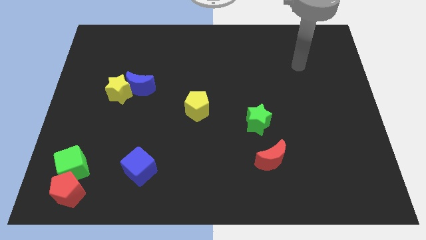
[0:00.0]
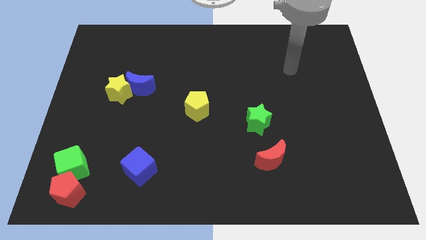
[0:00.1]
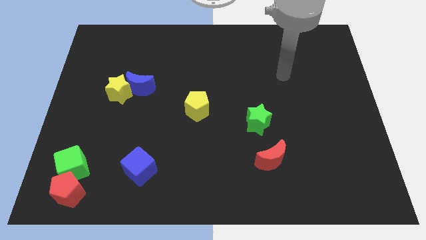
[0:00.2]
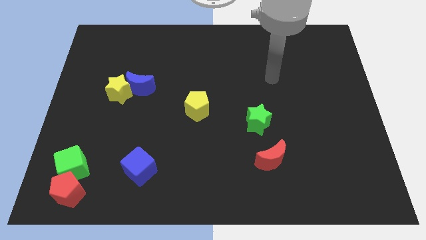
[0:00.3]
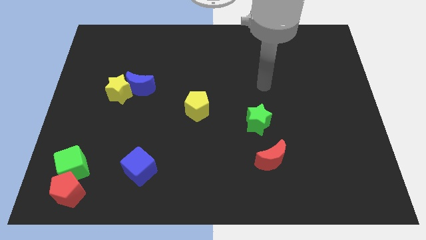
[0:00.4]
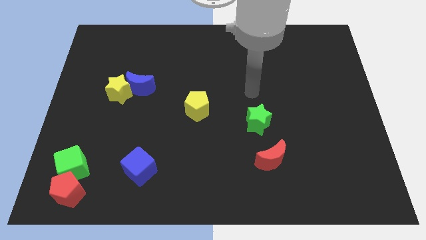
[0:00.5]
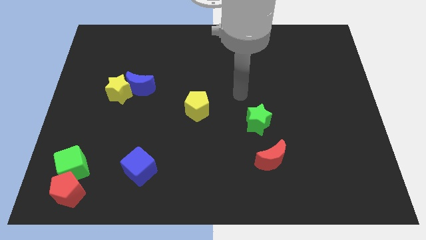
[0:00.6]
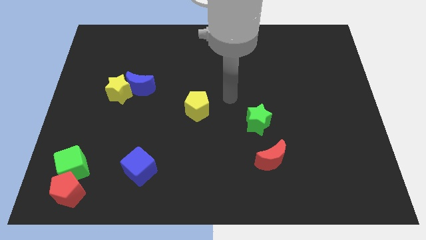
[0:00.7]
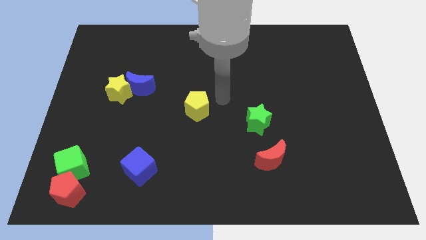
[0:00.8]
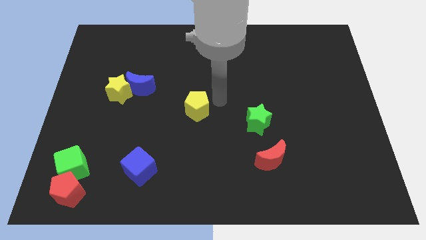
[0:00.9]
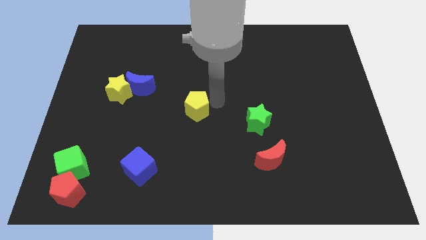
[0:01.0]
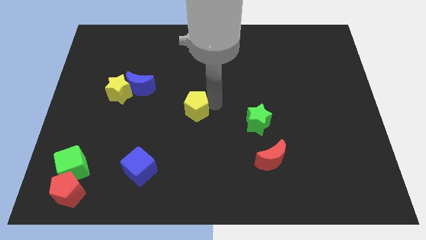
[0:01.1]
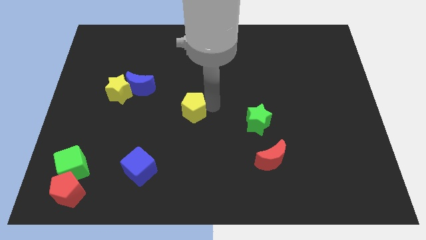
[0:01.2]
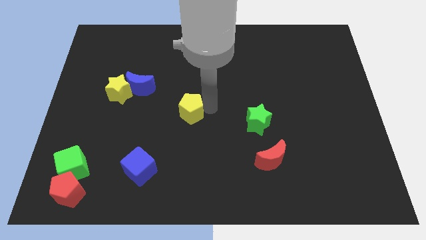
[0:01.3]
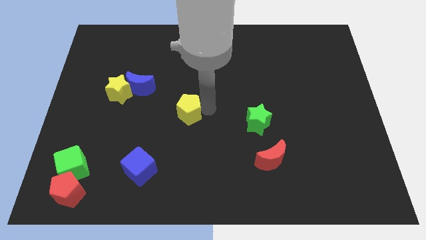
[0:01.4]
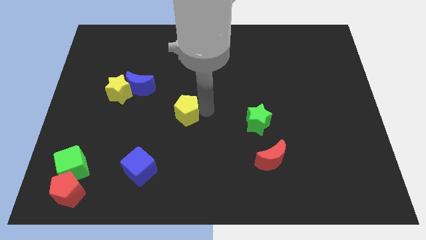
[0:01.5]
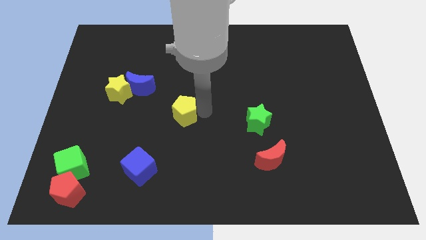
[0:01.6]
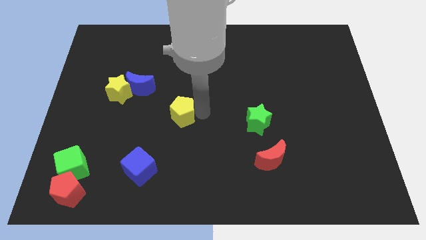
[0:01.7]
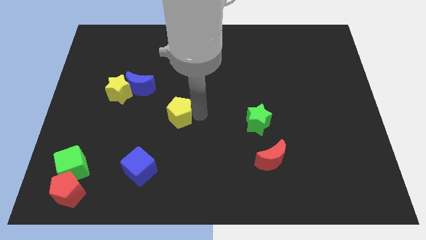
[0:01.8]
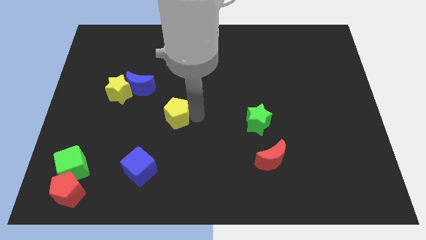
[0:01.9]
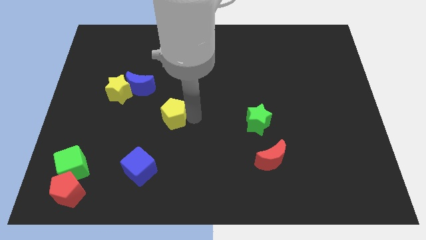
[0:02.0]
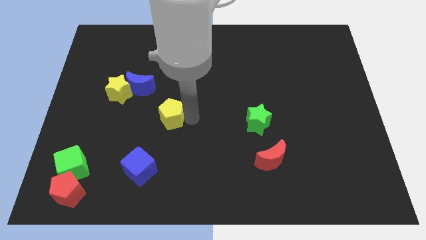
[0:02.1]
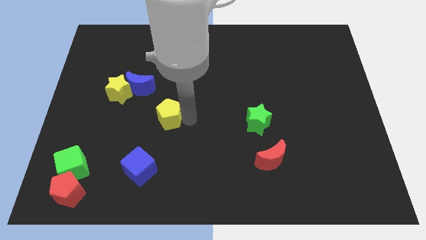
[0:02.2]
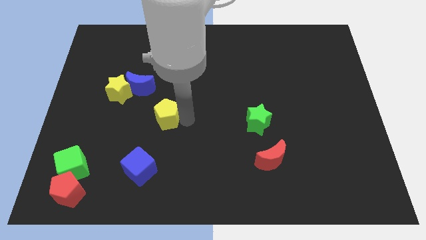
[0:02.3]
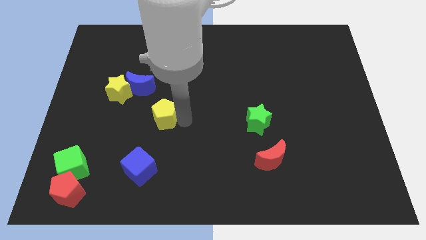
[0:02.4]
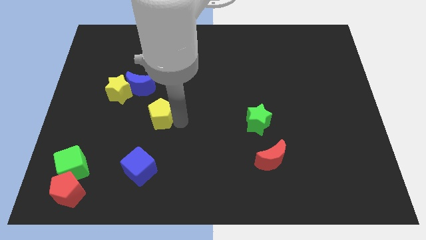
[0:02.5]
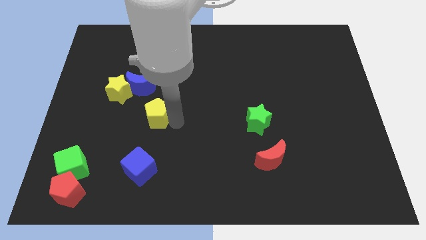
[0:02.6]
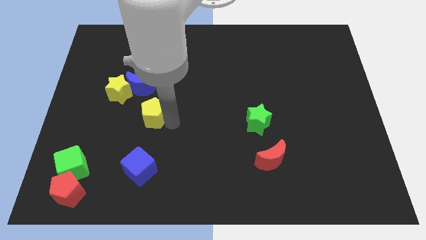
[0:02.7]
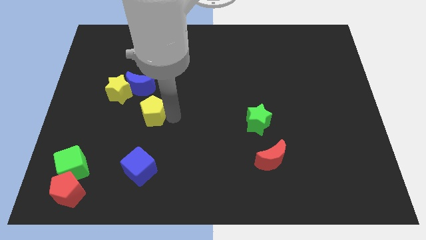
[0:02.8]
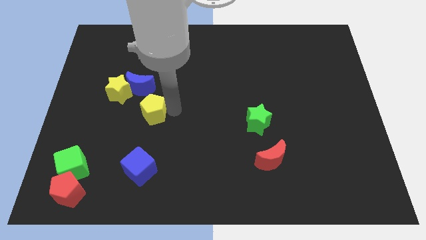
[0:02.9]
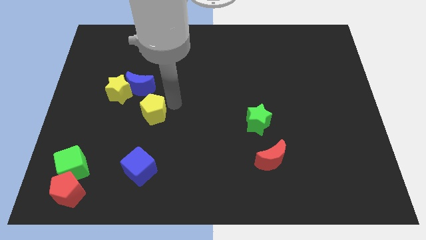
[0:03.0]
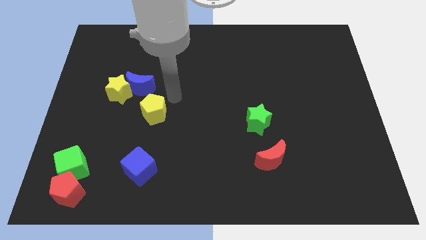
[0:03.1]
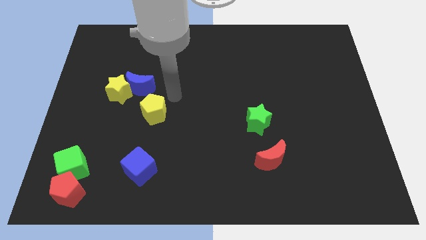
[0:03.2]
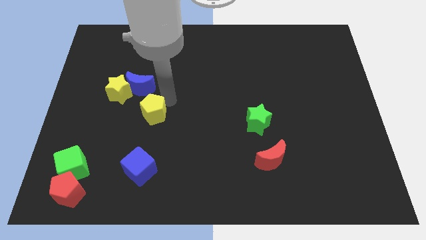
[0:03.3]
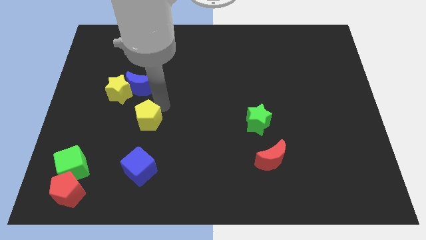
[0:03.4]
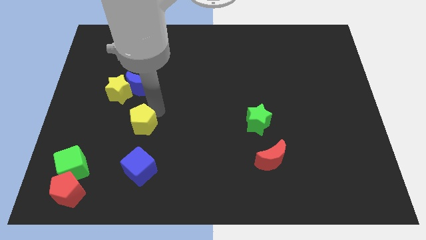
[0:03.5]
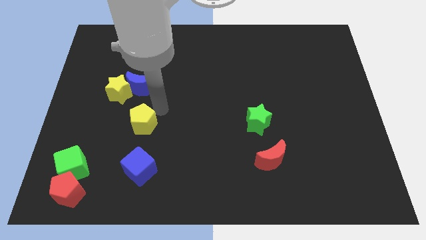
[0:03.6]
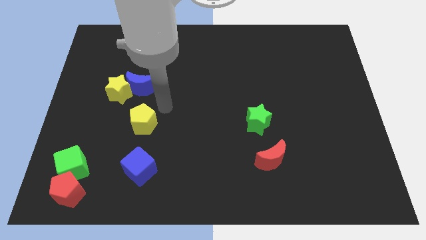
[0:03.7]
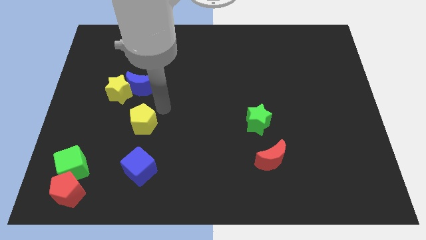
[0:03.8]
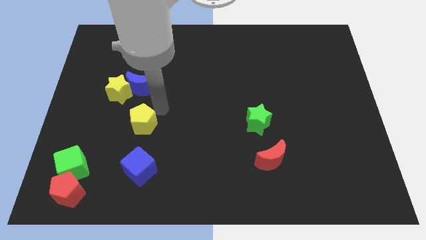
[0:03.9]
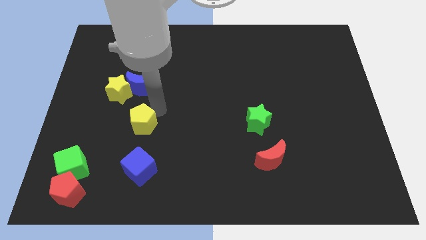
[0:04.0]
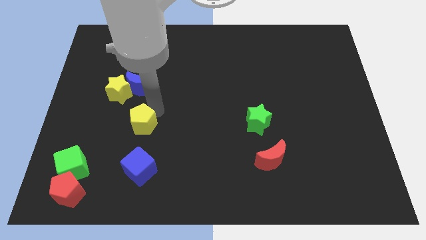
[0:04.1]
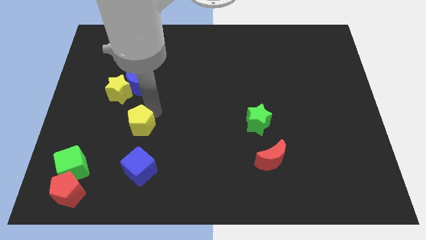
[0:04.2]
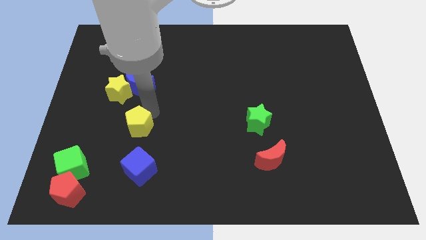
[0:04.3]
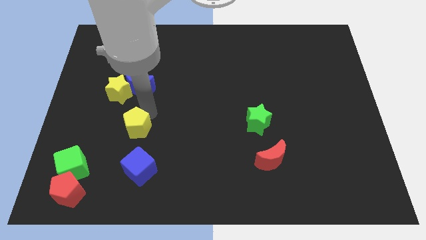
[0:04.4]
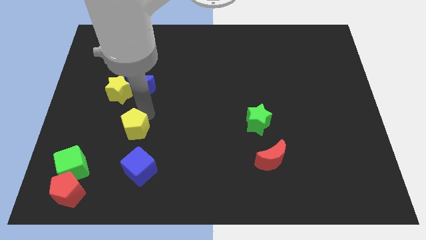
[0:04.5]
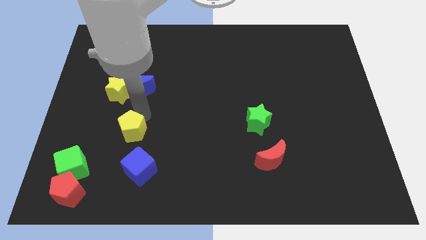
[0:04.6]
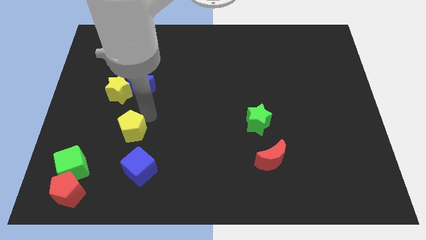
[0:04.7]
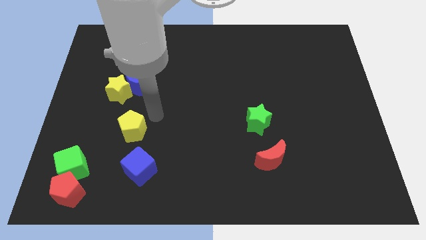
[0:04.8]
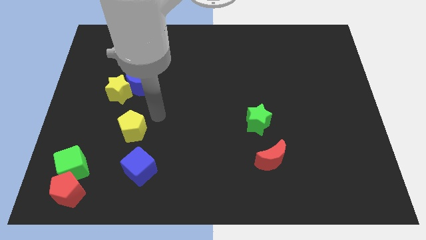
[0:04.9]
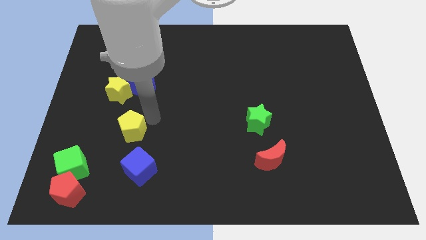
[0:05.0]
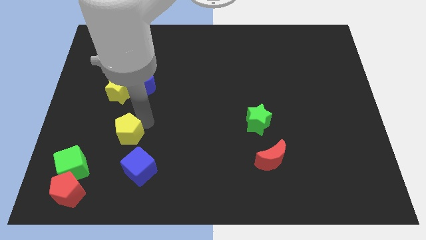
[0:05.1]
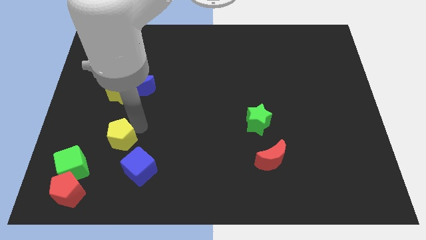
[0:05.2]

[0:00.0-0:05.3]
move the yellow pentagon diagonally up and to the right of the green cube

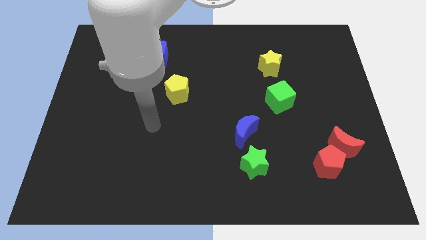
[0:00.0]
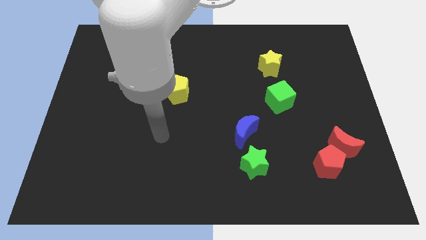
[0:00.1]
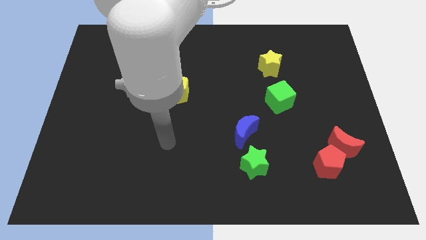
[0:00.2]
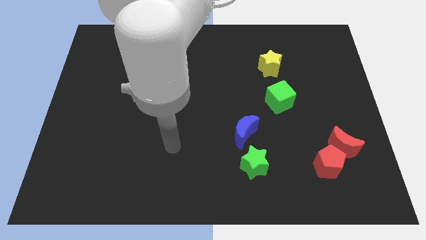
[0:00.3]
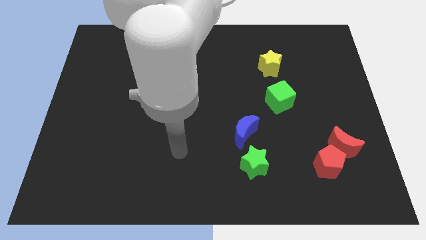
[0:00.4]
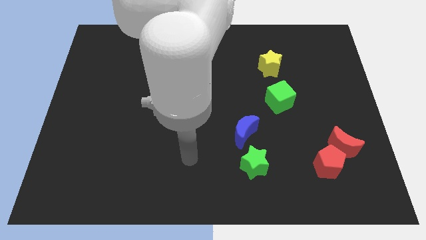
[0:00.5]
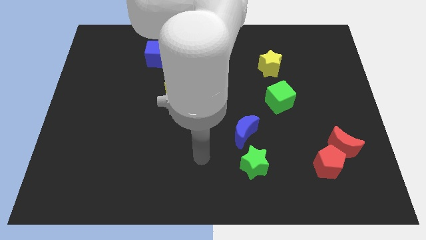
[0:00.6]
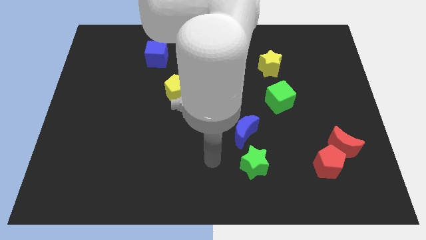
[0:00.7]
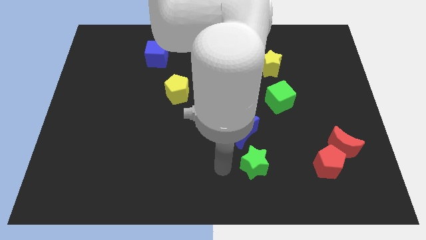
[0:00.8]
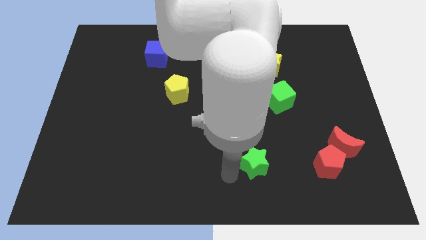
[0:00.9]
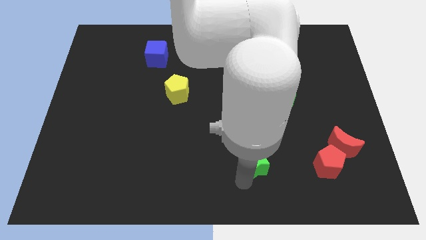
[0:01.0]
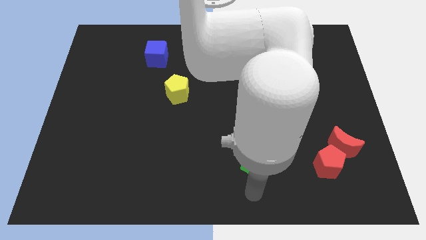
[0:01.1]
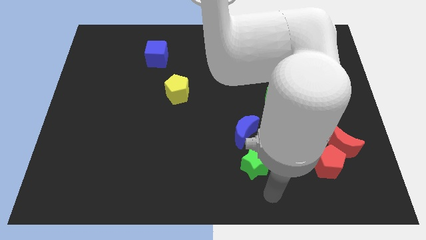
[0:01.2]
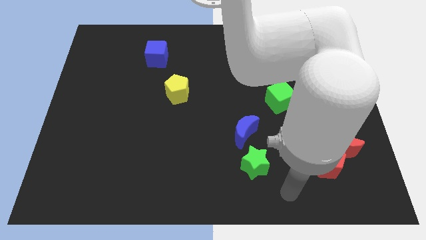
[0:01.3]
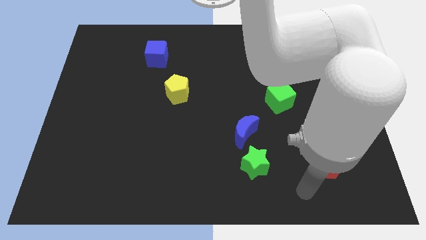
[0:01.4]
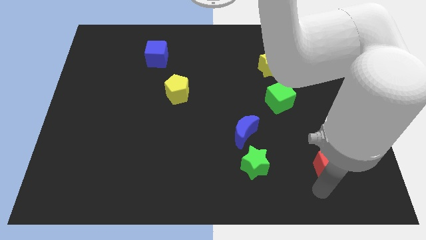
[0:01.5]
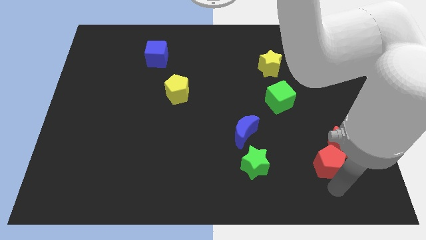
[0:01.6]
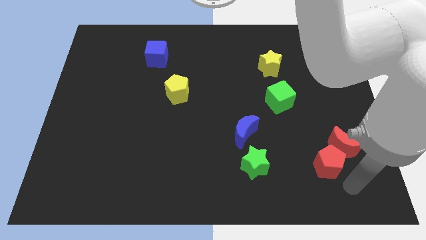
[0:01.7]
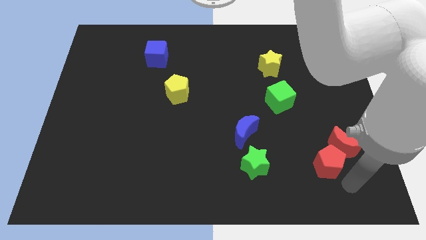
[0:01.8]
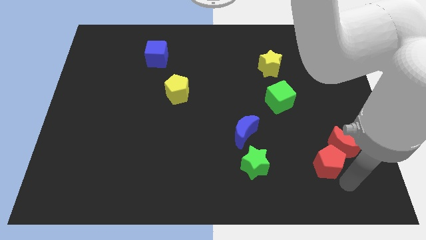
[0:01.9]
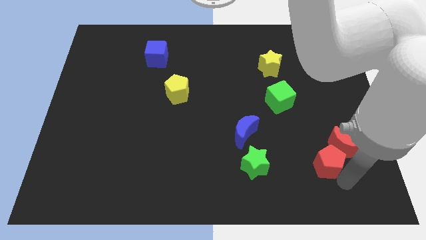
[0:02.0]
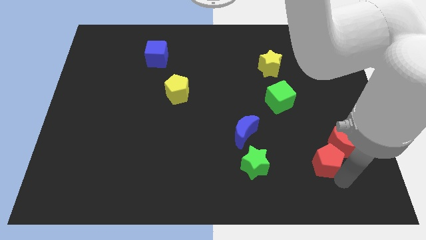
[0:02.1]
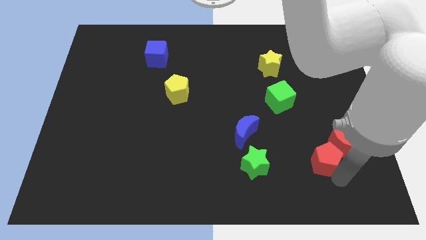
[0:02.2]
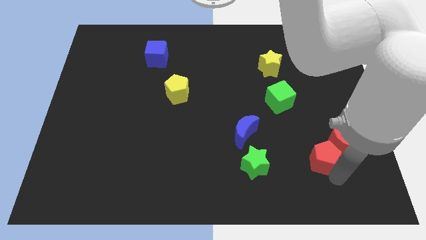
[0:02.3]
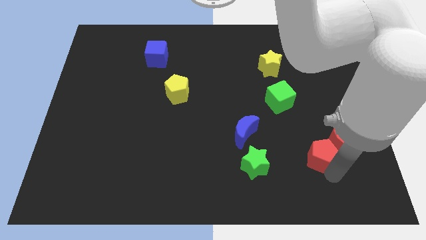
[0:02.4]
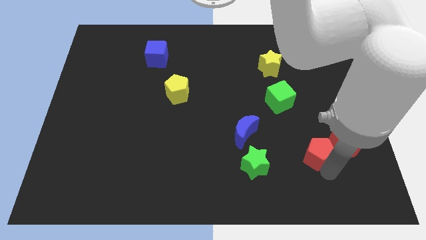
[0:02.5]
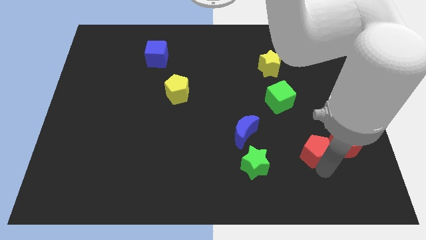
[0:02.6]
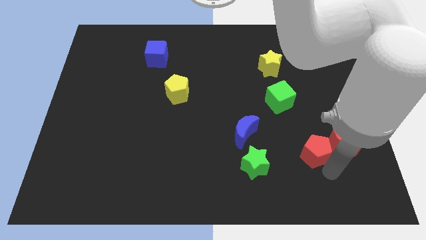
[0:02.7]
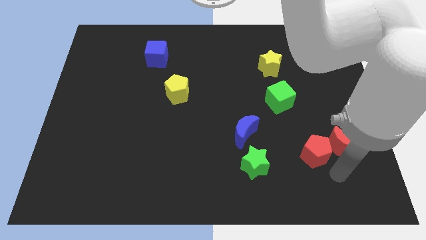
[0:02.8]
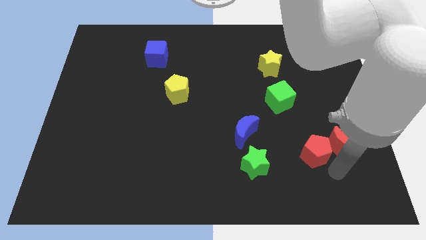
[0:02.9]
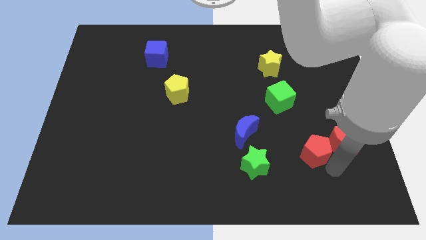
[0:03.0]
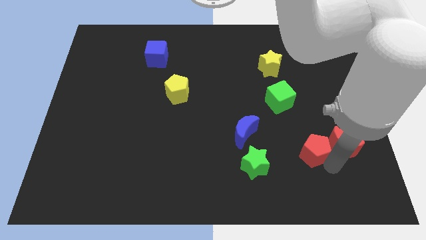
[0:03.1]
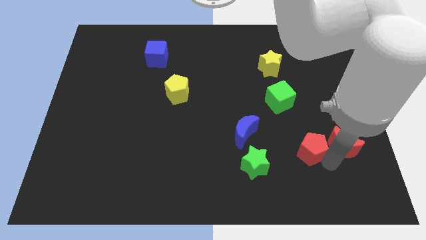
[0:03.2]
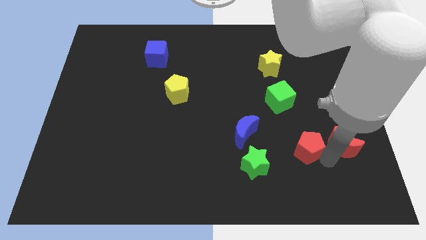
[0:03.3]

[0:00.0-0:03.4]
push the red pentagon to the right side of the blue moon
